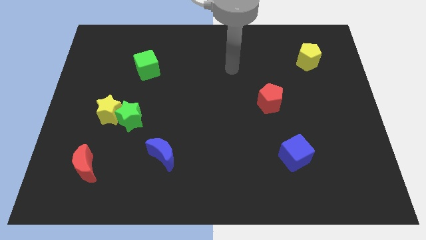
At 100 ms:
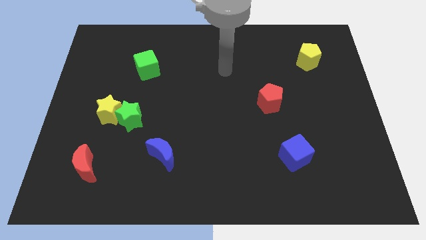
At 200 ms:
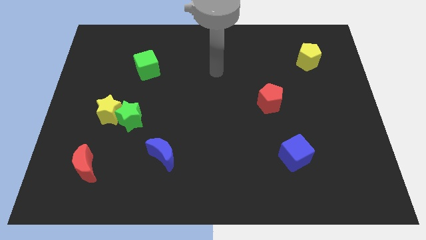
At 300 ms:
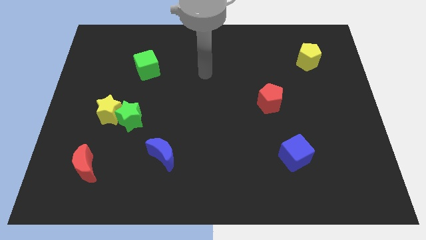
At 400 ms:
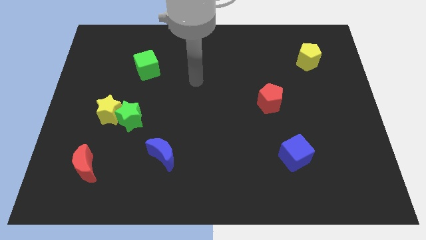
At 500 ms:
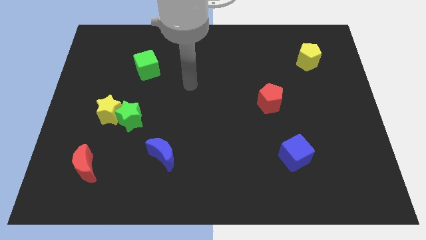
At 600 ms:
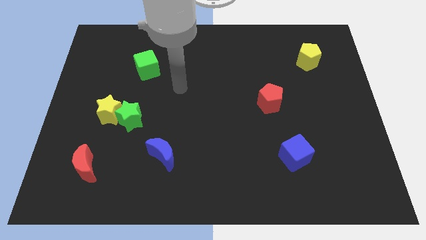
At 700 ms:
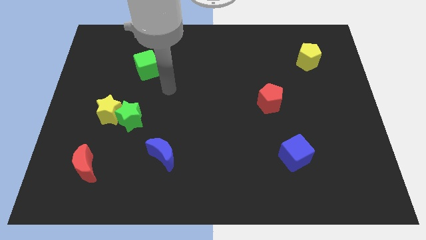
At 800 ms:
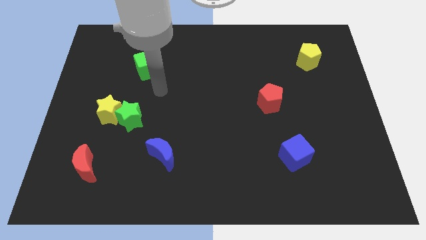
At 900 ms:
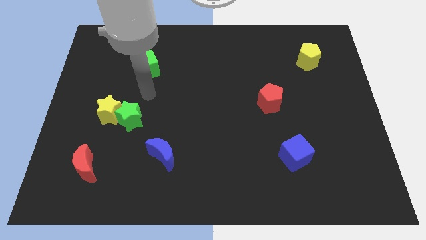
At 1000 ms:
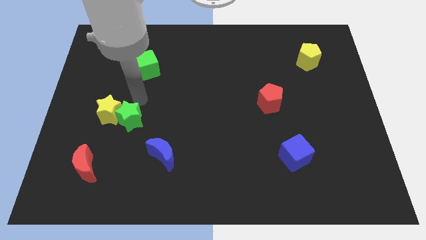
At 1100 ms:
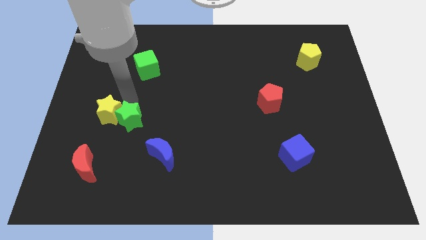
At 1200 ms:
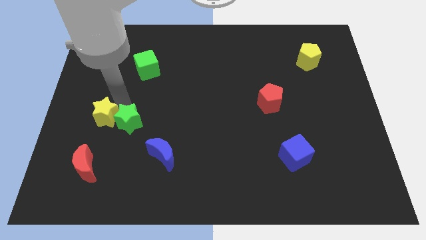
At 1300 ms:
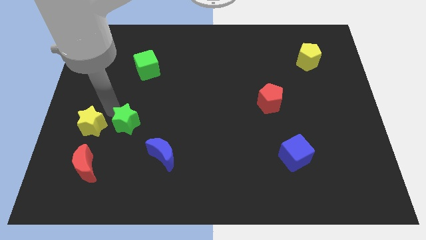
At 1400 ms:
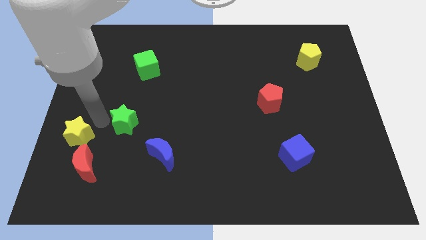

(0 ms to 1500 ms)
move the green star away from the yellow star

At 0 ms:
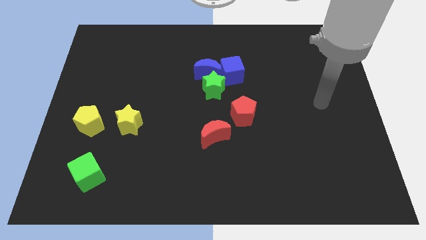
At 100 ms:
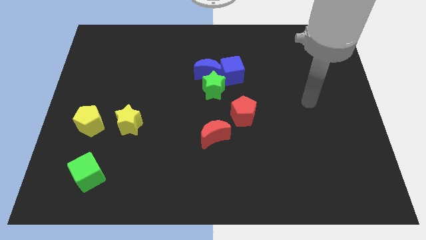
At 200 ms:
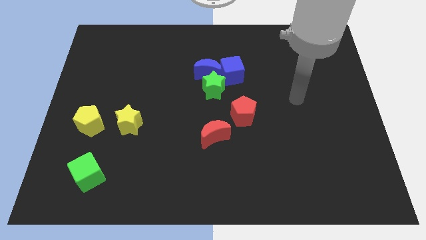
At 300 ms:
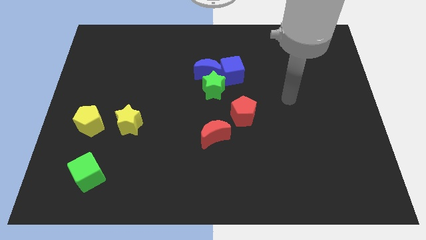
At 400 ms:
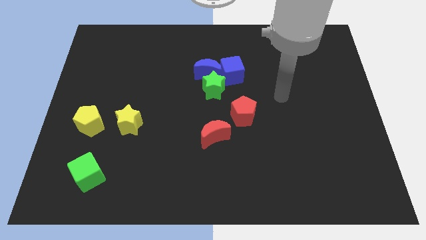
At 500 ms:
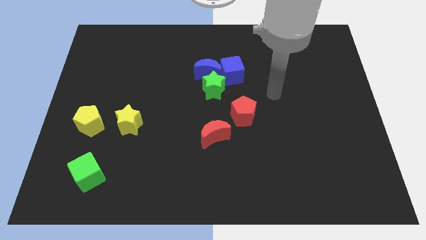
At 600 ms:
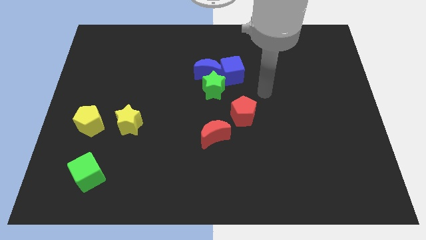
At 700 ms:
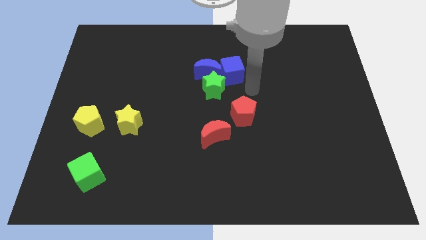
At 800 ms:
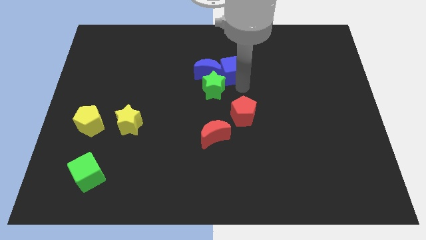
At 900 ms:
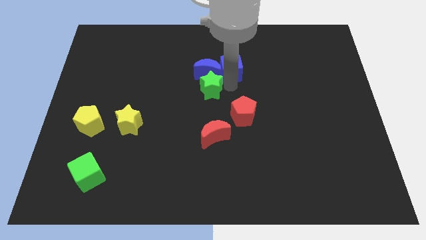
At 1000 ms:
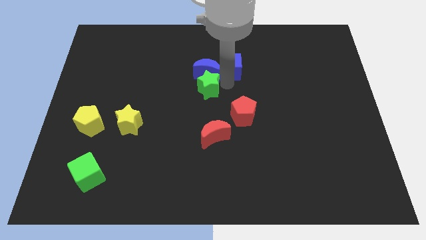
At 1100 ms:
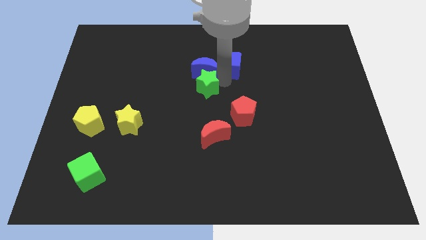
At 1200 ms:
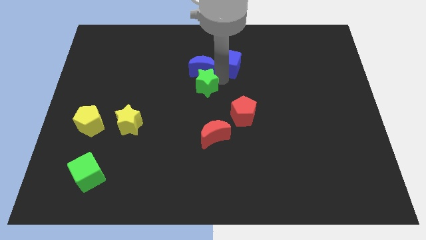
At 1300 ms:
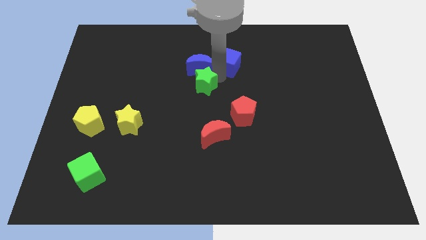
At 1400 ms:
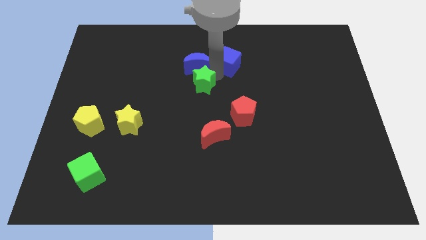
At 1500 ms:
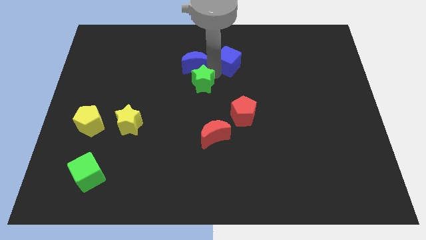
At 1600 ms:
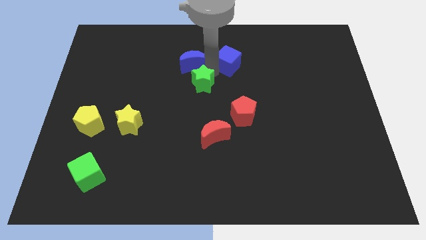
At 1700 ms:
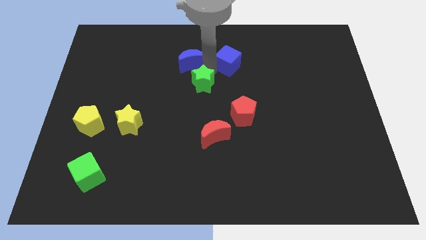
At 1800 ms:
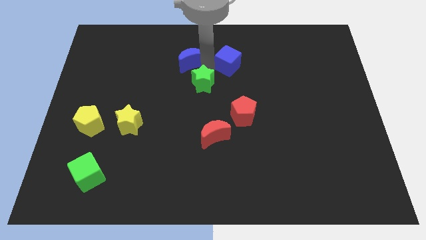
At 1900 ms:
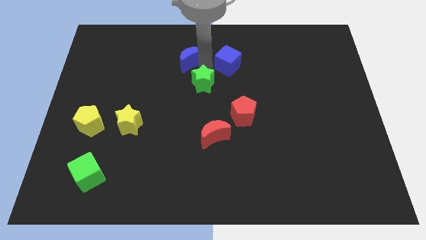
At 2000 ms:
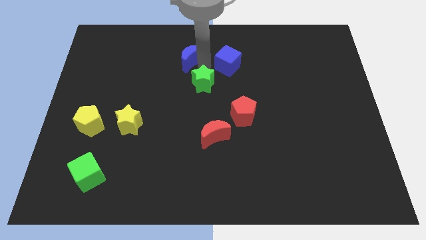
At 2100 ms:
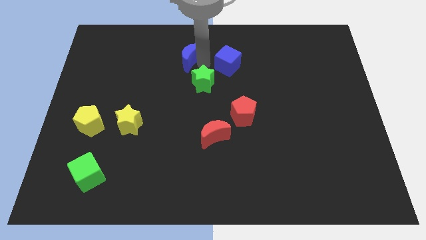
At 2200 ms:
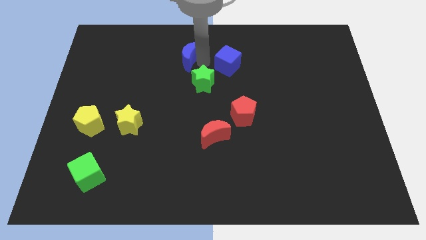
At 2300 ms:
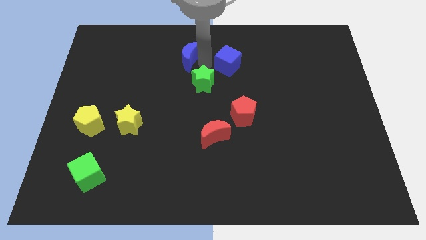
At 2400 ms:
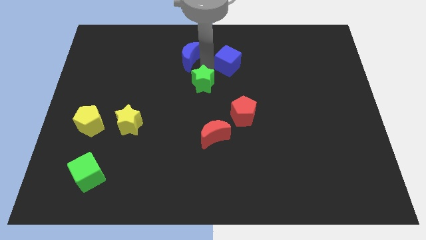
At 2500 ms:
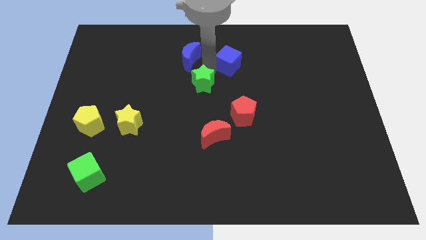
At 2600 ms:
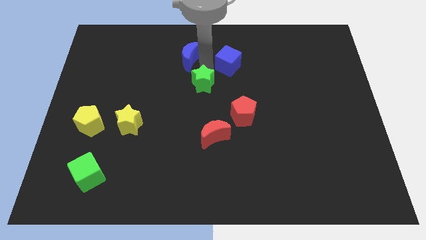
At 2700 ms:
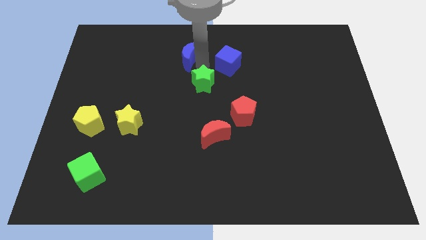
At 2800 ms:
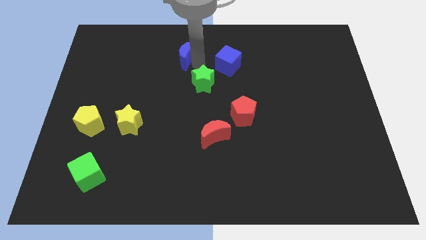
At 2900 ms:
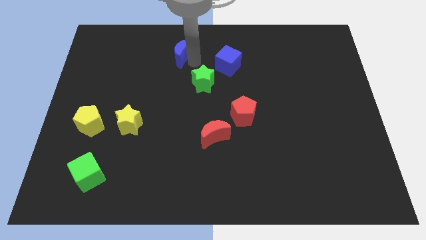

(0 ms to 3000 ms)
separate the blue moon from the green star and blue cube

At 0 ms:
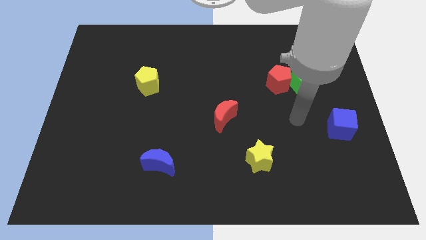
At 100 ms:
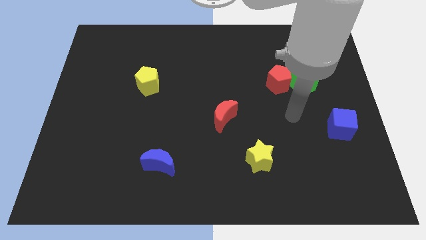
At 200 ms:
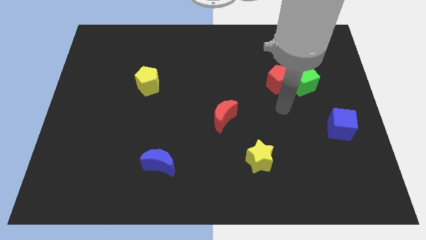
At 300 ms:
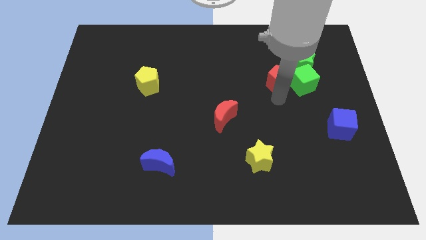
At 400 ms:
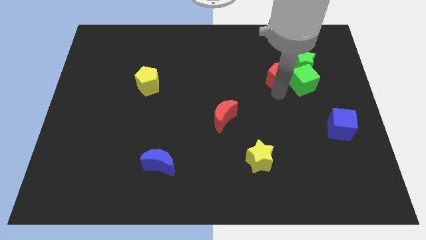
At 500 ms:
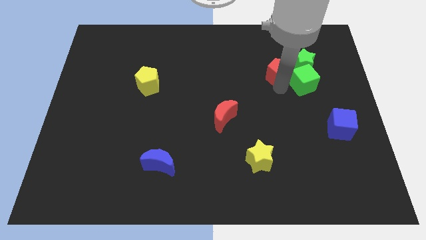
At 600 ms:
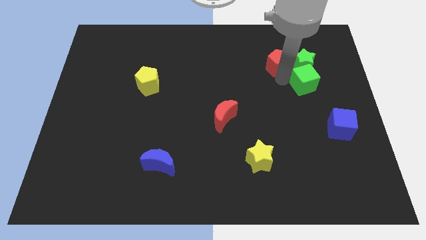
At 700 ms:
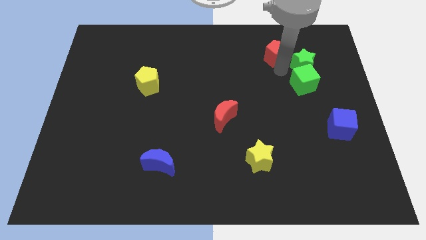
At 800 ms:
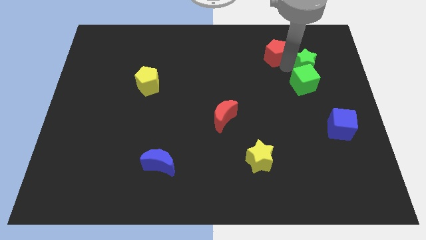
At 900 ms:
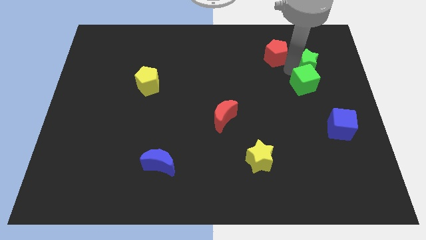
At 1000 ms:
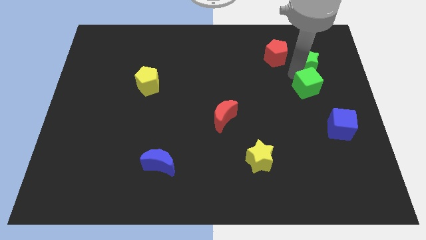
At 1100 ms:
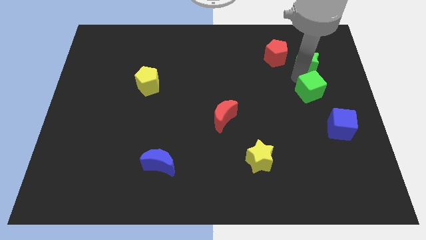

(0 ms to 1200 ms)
pull the green cube apart from the green star and red pentagon

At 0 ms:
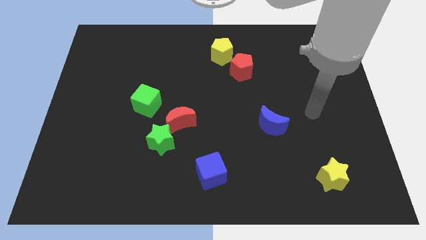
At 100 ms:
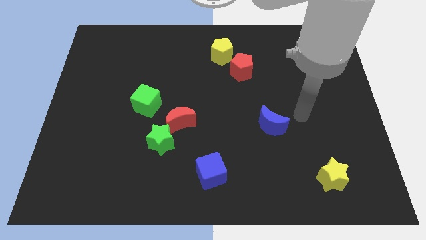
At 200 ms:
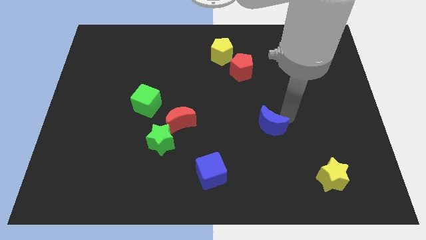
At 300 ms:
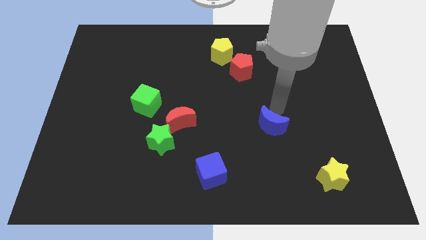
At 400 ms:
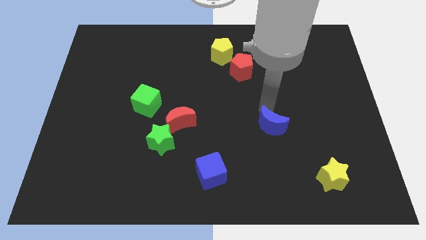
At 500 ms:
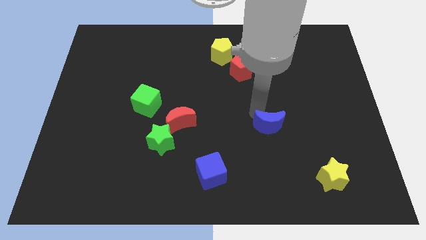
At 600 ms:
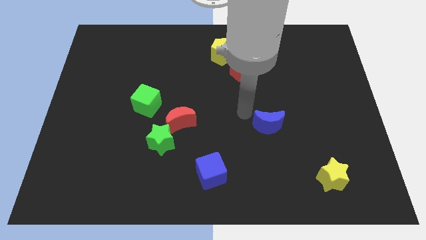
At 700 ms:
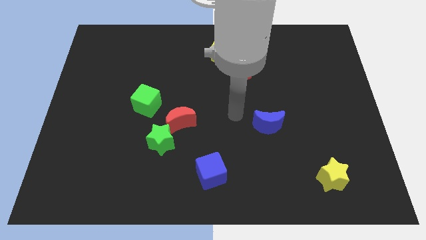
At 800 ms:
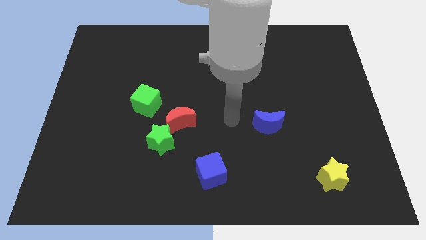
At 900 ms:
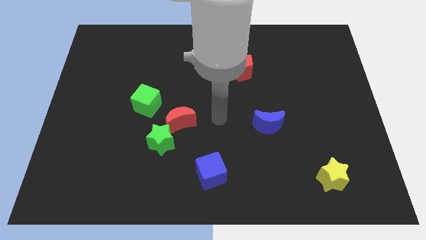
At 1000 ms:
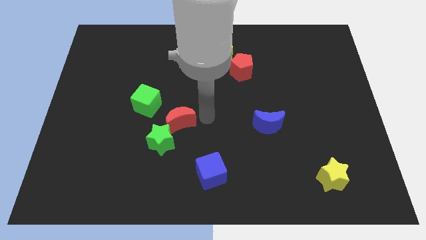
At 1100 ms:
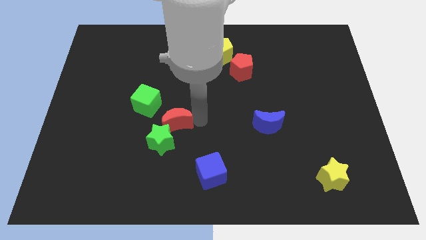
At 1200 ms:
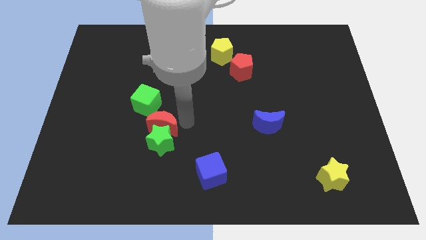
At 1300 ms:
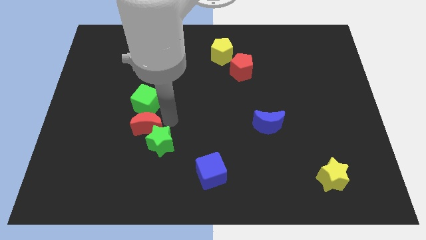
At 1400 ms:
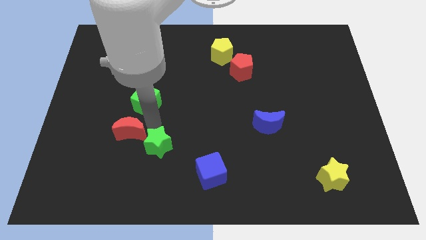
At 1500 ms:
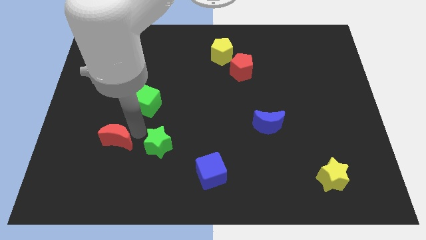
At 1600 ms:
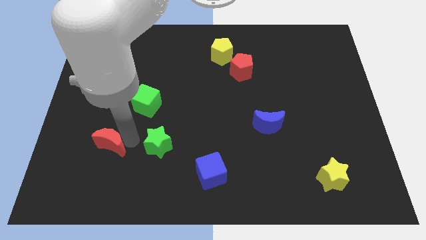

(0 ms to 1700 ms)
separate the green star from the red moon

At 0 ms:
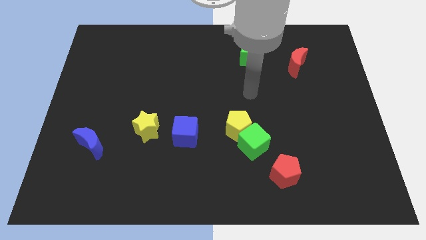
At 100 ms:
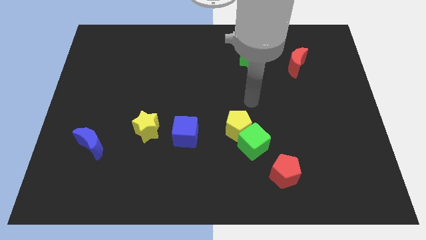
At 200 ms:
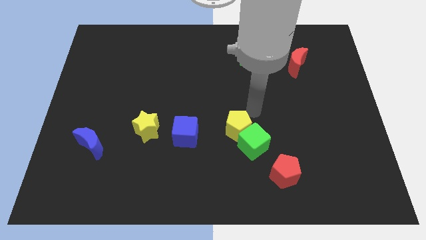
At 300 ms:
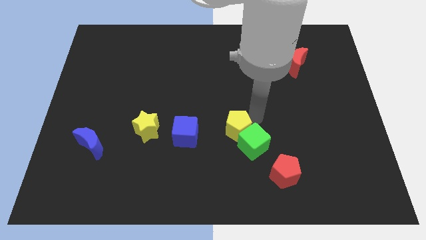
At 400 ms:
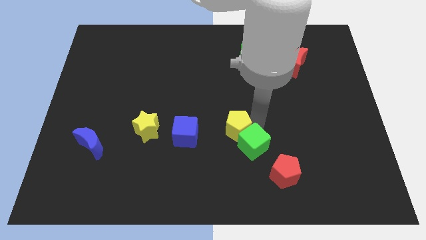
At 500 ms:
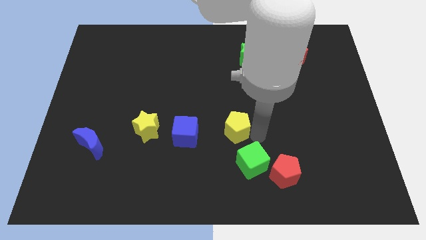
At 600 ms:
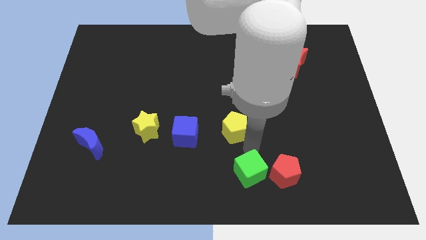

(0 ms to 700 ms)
separate the yellow pentagon from the green cube

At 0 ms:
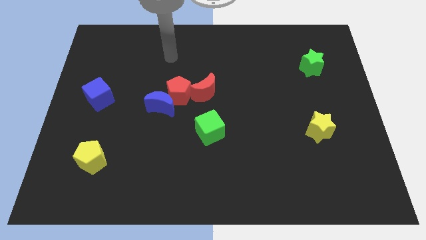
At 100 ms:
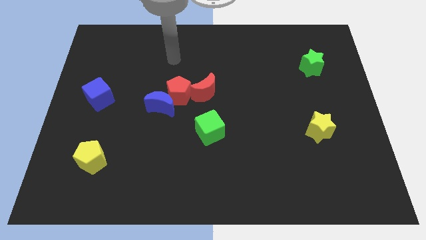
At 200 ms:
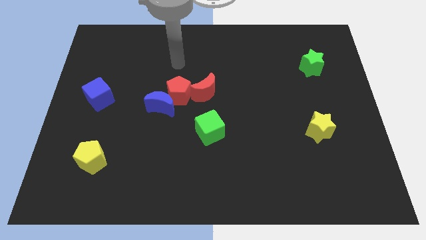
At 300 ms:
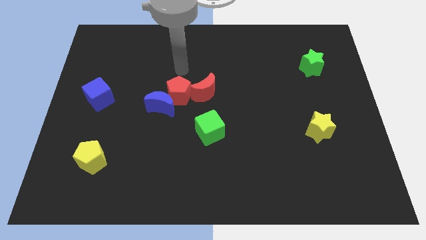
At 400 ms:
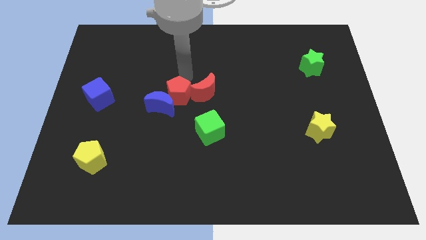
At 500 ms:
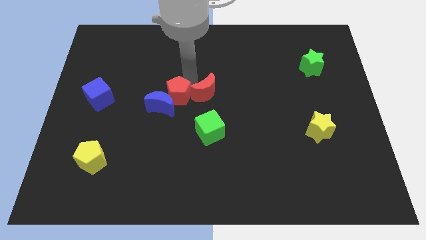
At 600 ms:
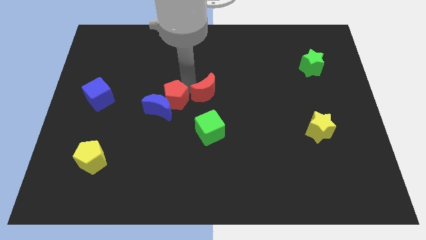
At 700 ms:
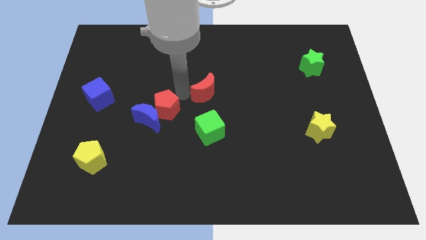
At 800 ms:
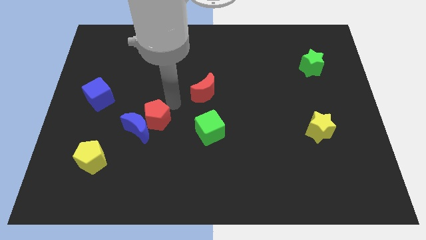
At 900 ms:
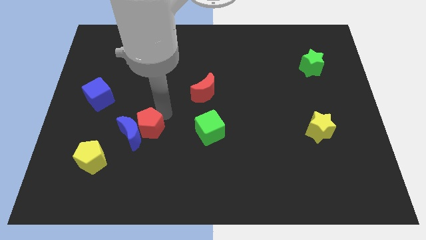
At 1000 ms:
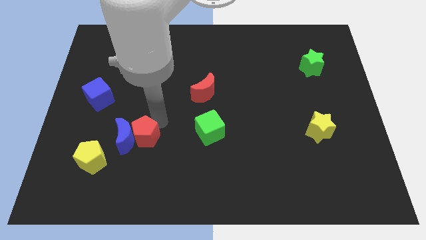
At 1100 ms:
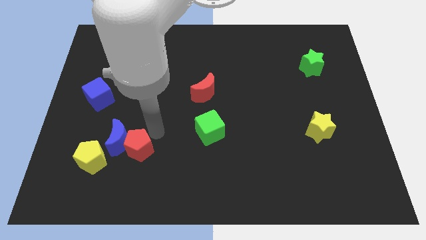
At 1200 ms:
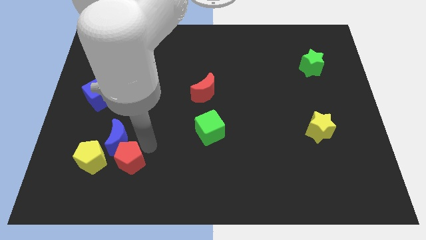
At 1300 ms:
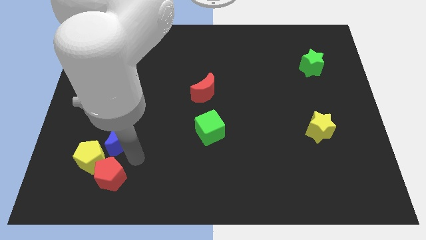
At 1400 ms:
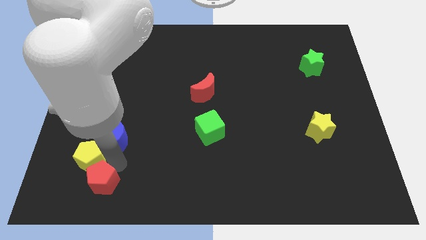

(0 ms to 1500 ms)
separate the blue moon from the red pentagon
